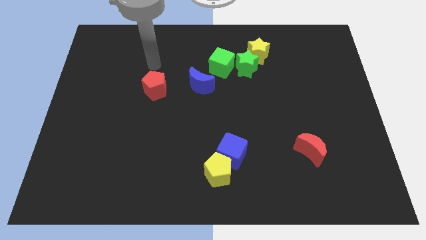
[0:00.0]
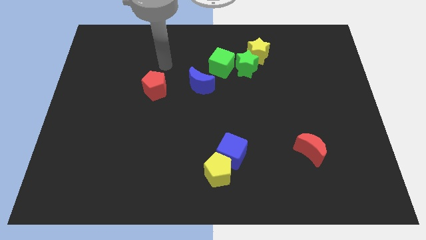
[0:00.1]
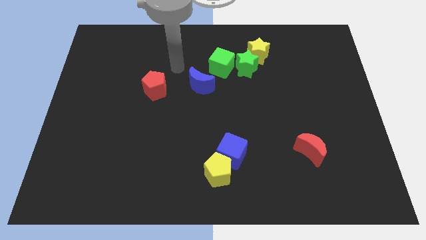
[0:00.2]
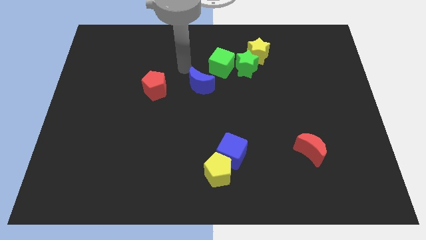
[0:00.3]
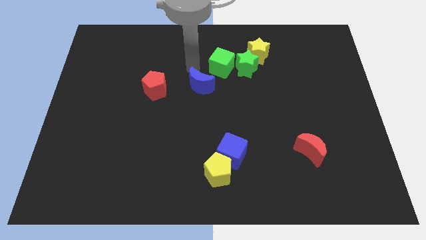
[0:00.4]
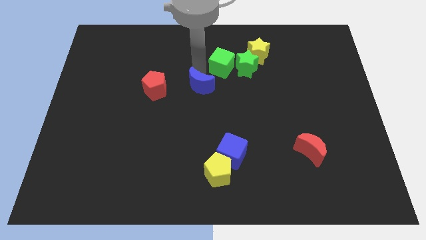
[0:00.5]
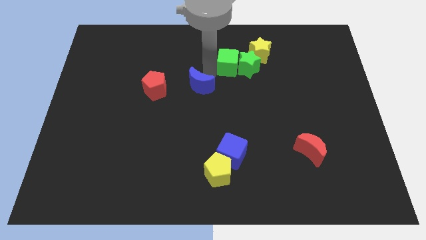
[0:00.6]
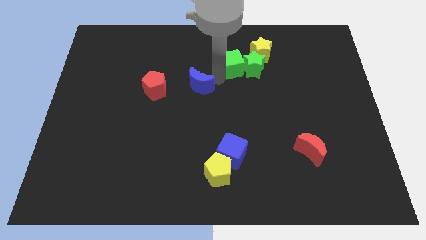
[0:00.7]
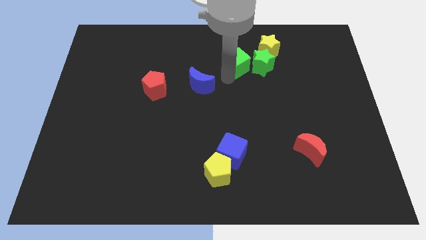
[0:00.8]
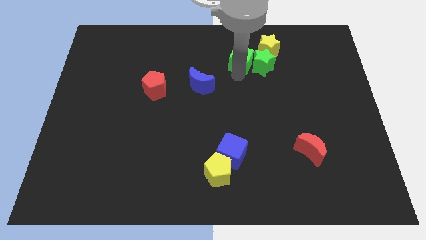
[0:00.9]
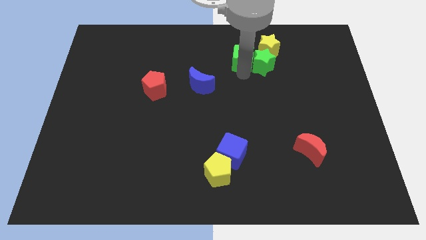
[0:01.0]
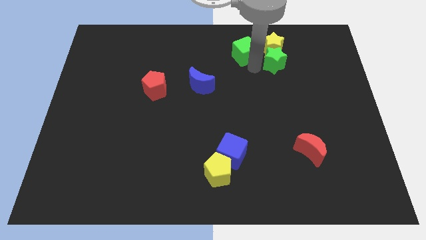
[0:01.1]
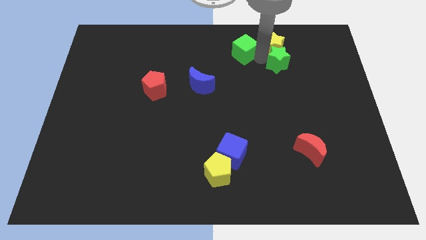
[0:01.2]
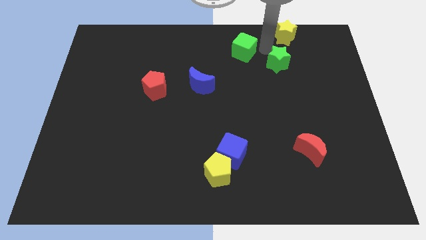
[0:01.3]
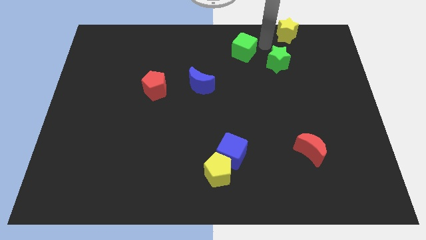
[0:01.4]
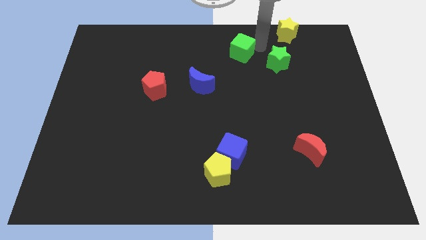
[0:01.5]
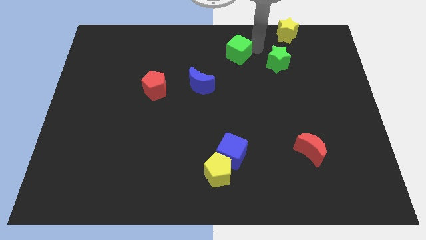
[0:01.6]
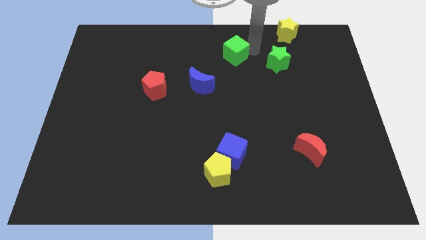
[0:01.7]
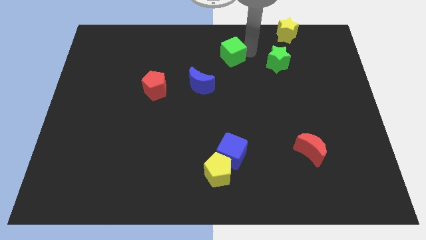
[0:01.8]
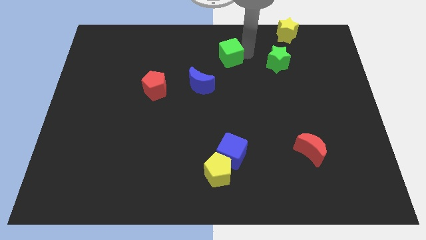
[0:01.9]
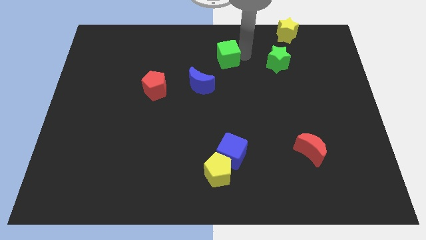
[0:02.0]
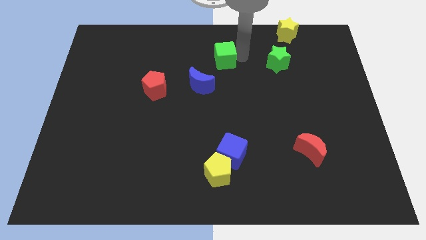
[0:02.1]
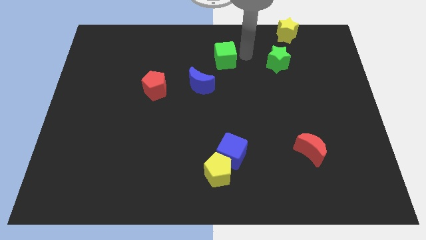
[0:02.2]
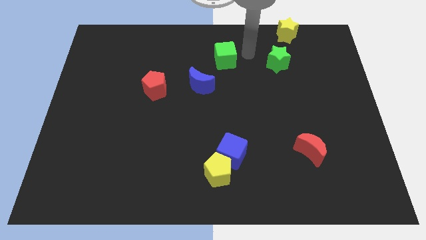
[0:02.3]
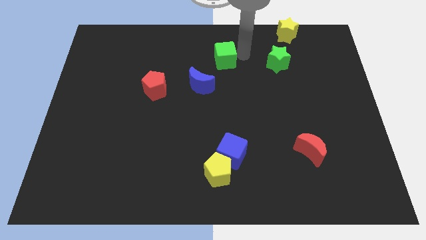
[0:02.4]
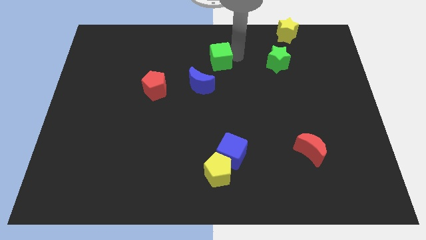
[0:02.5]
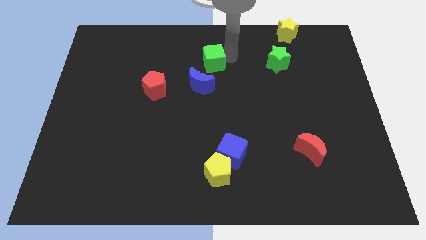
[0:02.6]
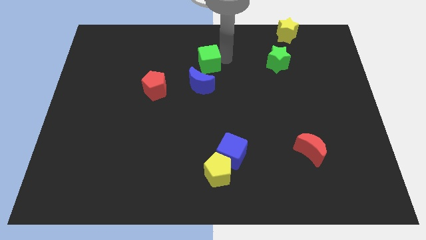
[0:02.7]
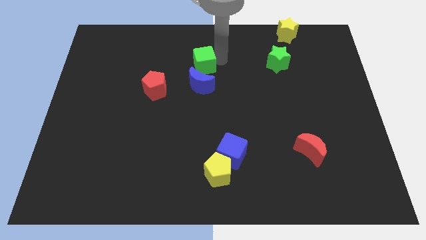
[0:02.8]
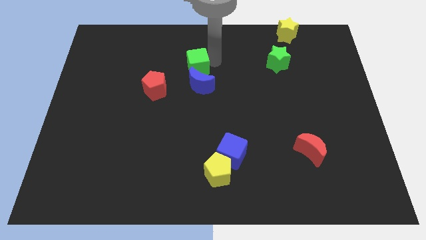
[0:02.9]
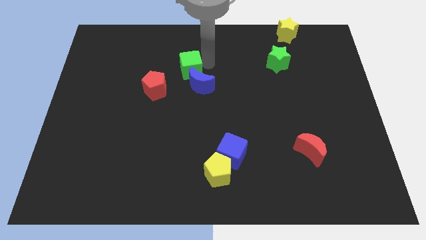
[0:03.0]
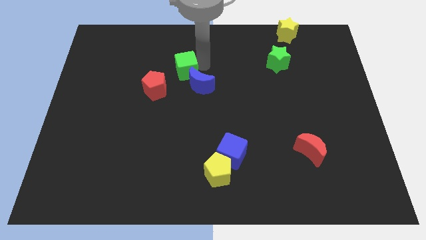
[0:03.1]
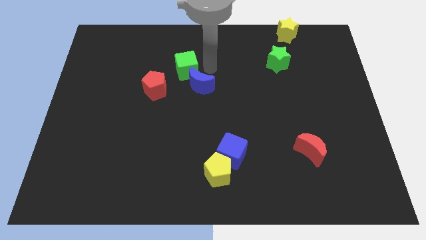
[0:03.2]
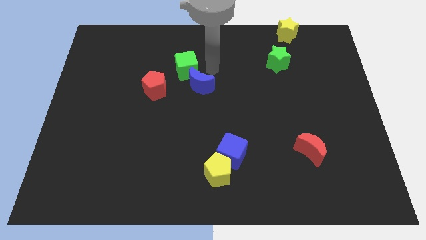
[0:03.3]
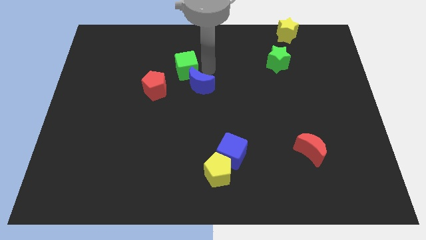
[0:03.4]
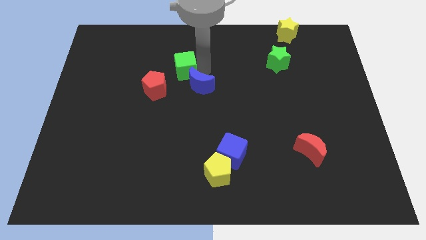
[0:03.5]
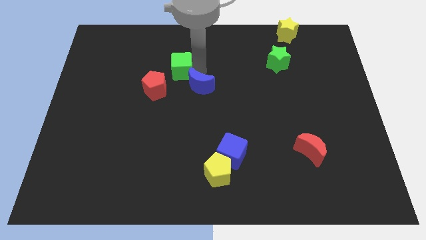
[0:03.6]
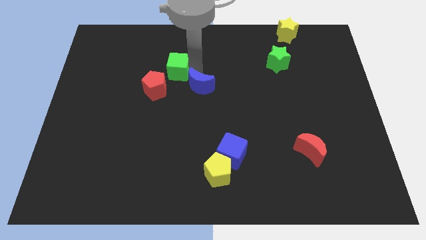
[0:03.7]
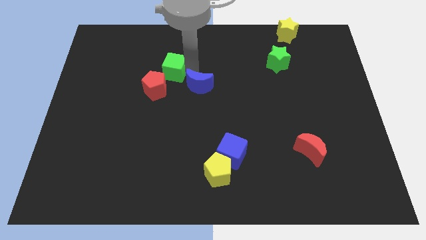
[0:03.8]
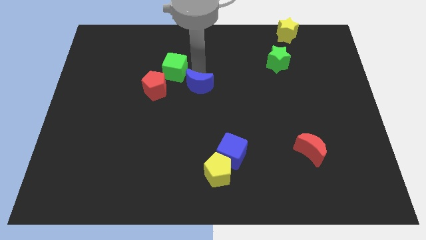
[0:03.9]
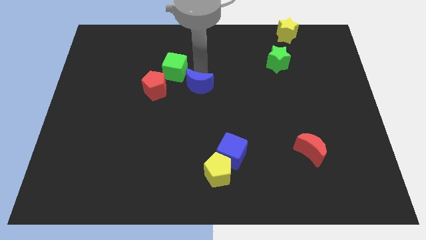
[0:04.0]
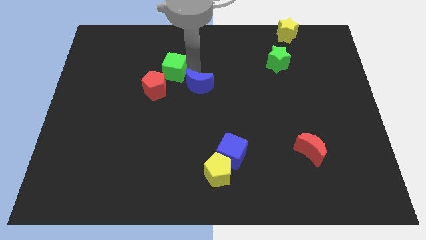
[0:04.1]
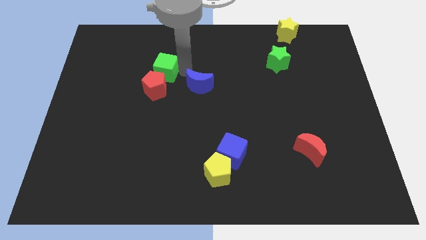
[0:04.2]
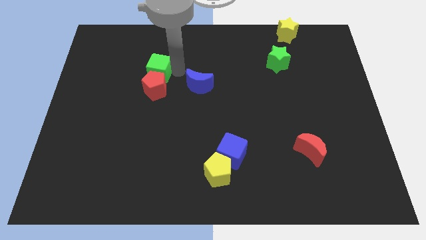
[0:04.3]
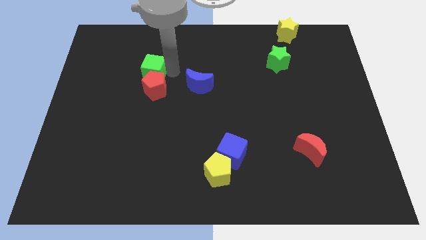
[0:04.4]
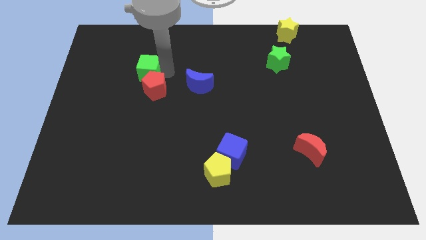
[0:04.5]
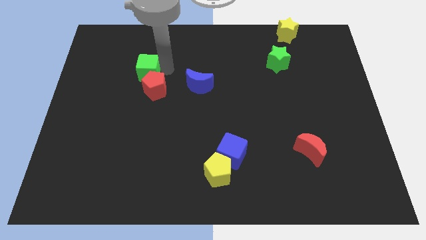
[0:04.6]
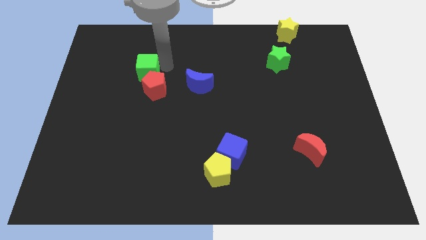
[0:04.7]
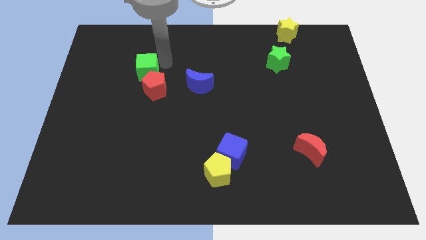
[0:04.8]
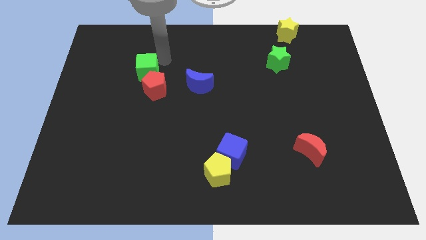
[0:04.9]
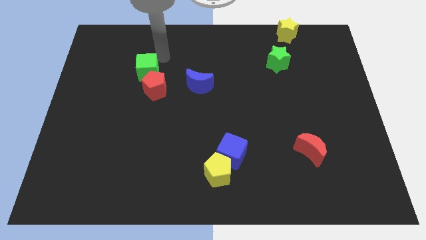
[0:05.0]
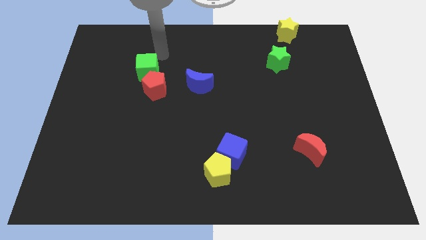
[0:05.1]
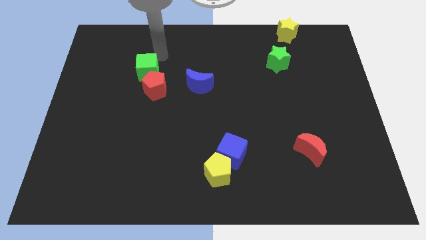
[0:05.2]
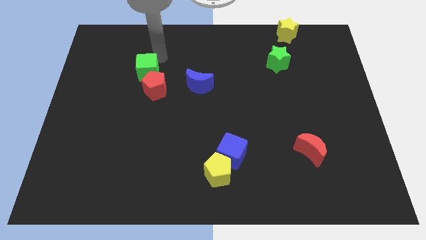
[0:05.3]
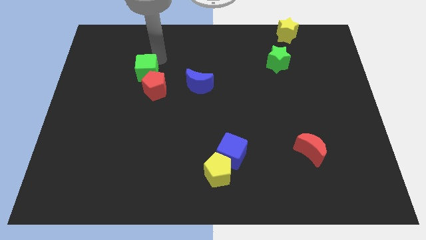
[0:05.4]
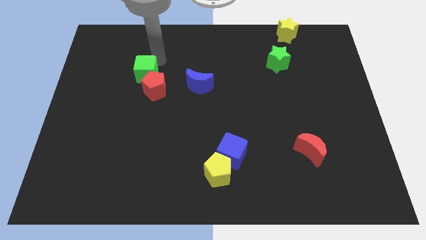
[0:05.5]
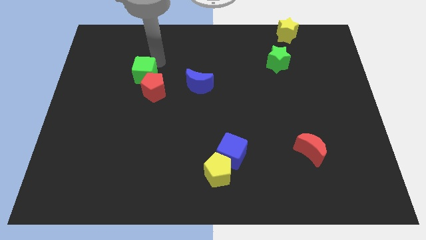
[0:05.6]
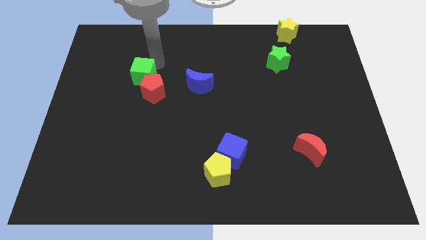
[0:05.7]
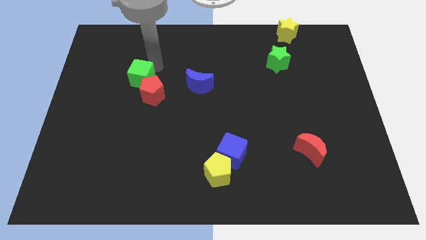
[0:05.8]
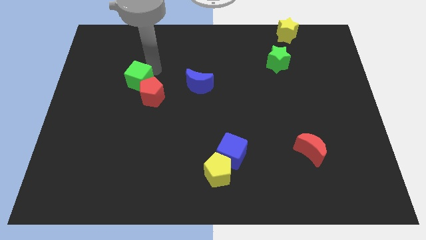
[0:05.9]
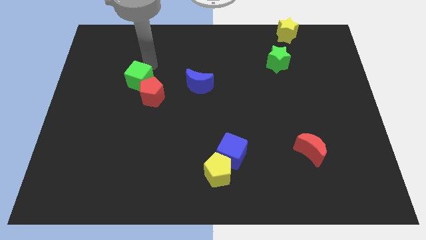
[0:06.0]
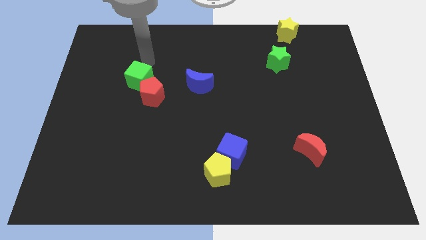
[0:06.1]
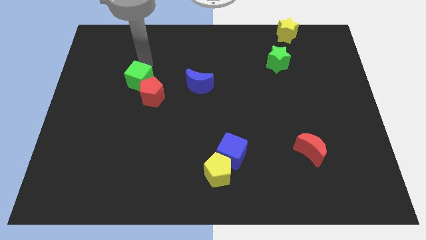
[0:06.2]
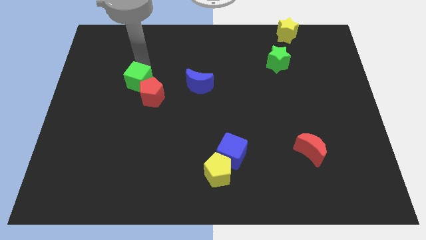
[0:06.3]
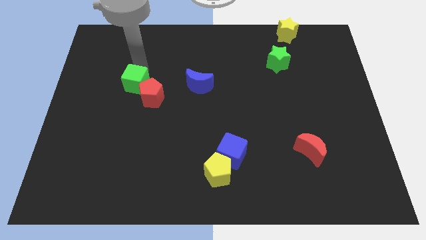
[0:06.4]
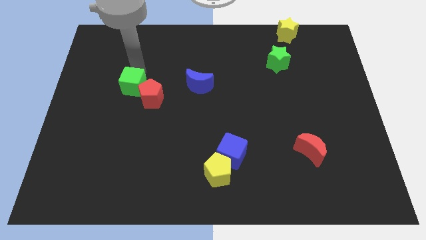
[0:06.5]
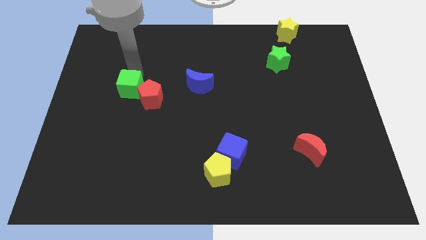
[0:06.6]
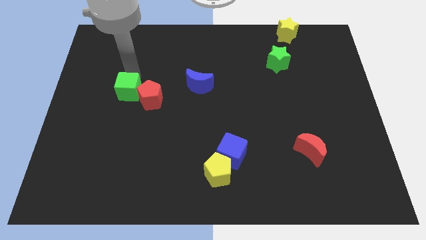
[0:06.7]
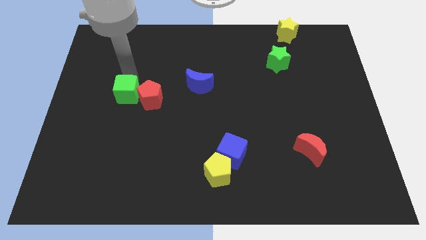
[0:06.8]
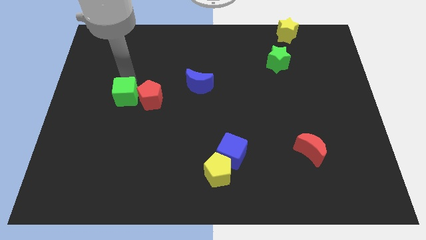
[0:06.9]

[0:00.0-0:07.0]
push the green cube diagonally down and to the left of the red pentagon

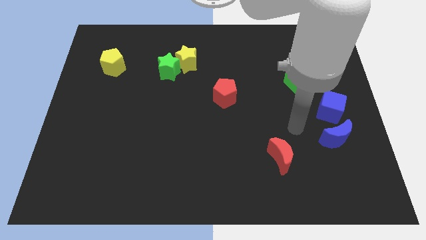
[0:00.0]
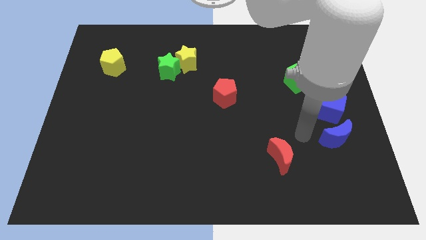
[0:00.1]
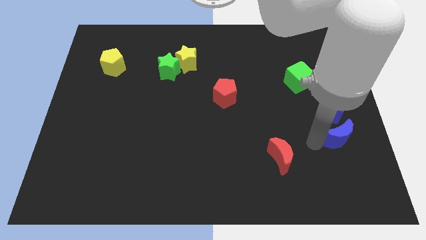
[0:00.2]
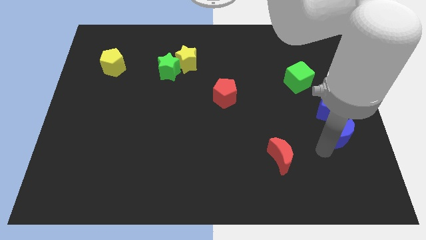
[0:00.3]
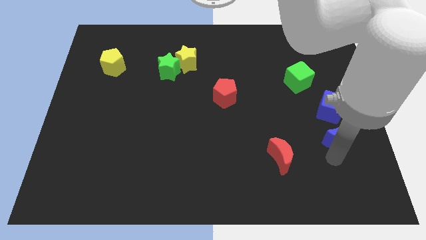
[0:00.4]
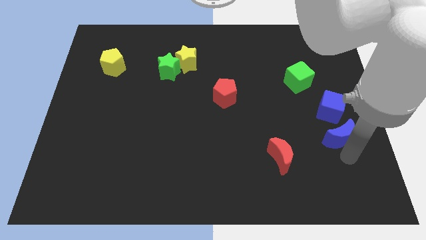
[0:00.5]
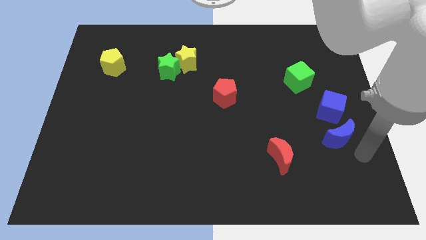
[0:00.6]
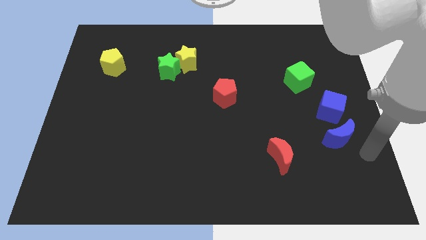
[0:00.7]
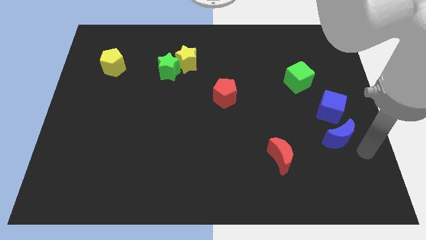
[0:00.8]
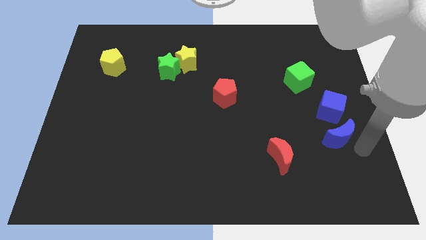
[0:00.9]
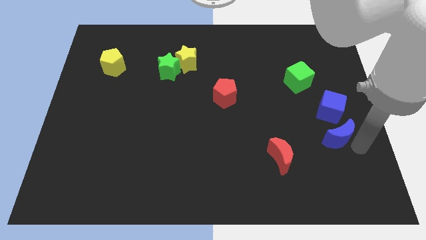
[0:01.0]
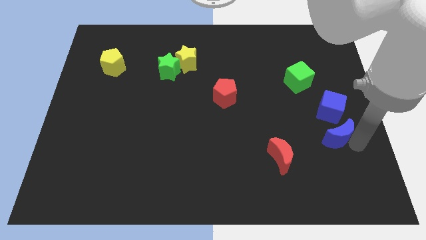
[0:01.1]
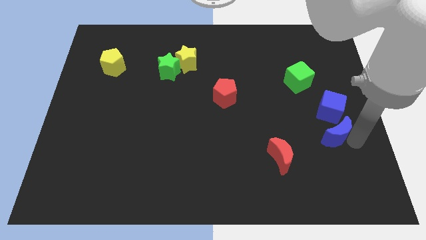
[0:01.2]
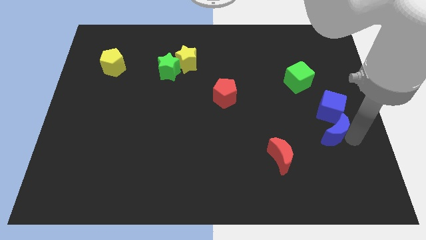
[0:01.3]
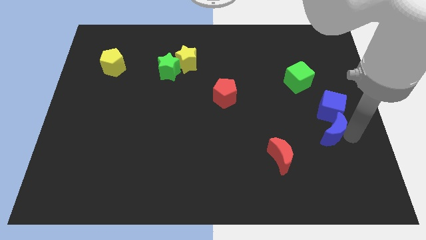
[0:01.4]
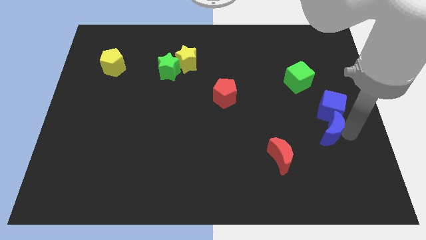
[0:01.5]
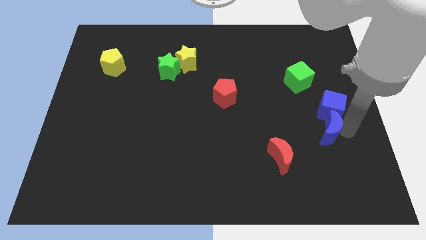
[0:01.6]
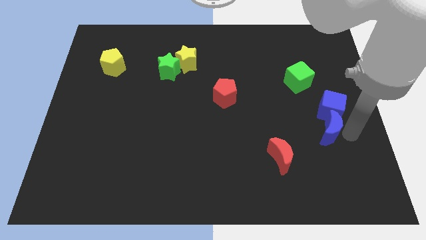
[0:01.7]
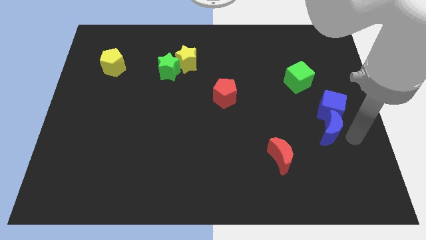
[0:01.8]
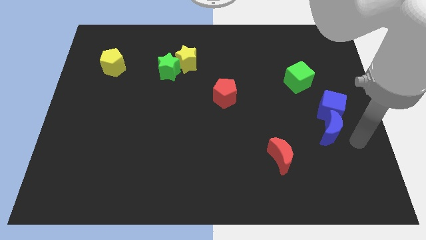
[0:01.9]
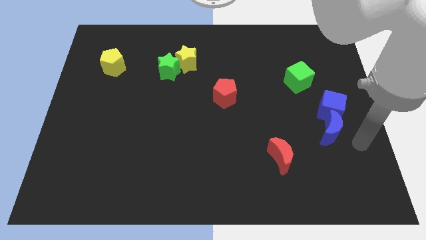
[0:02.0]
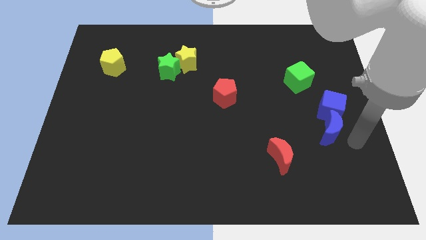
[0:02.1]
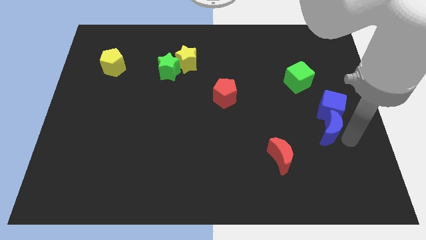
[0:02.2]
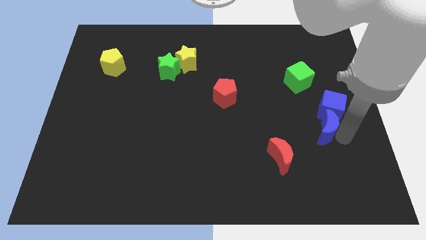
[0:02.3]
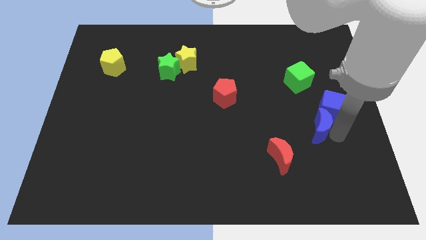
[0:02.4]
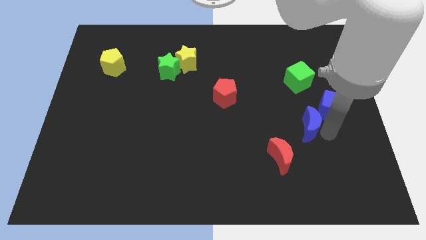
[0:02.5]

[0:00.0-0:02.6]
move the blue moon to the left side of the blue cube
